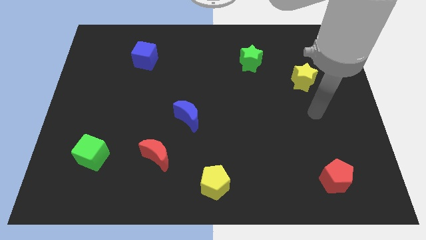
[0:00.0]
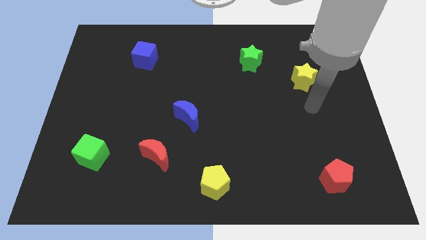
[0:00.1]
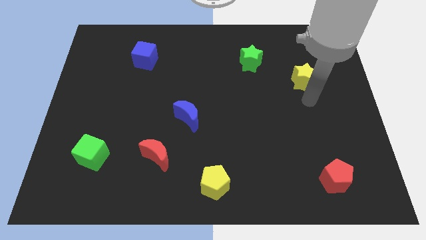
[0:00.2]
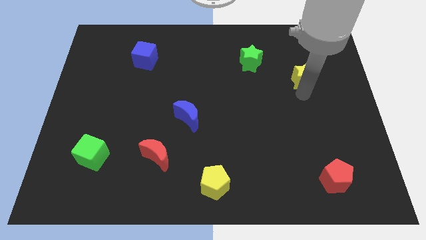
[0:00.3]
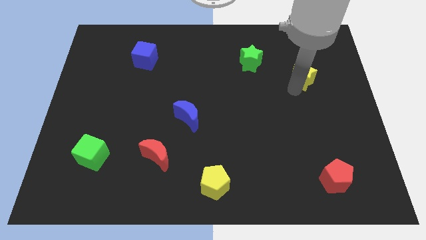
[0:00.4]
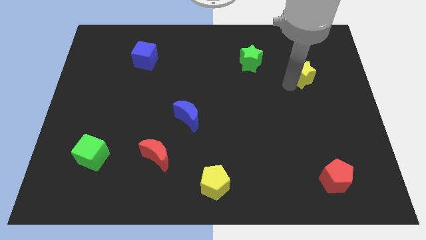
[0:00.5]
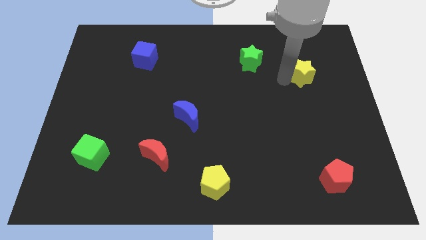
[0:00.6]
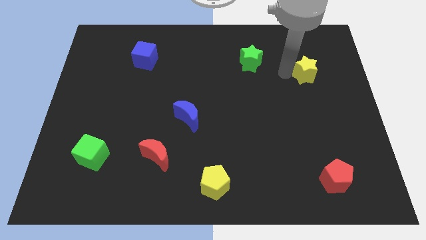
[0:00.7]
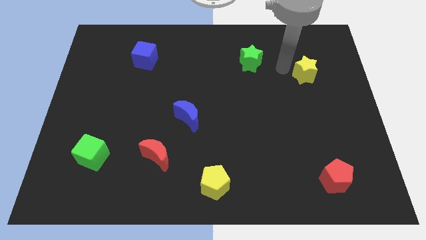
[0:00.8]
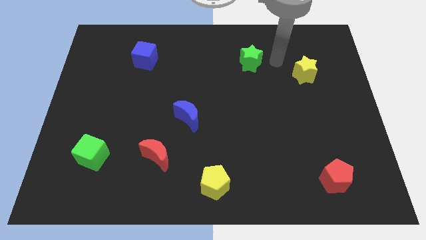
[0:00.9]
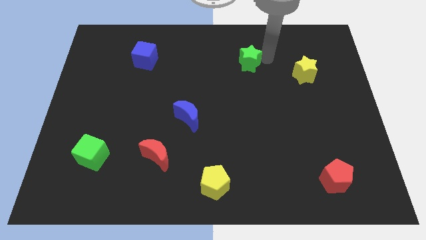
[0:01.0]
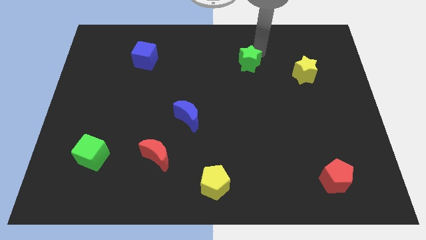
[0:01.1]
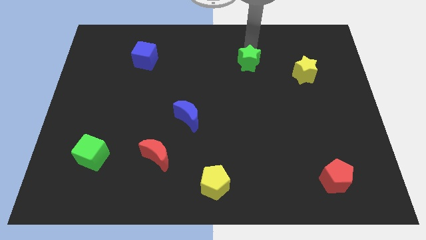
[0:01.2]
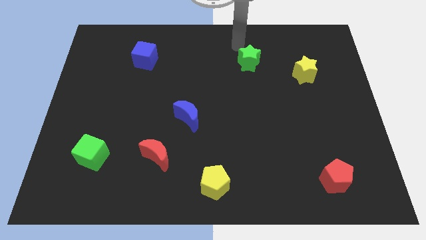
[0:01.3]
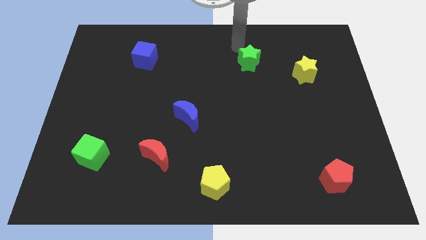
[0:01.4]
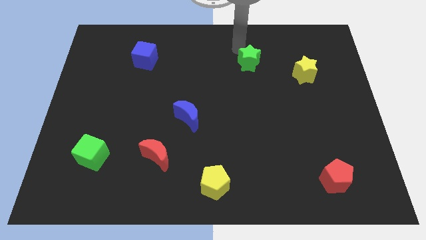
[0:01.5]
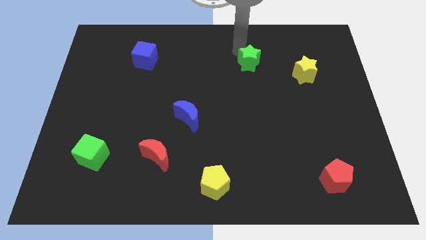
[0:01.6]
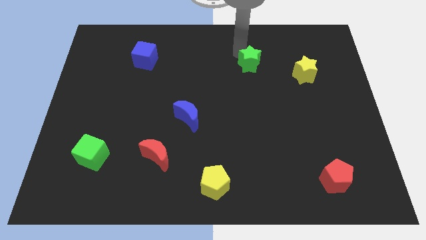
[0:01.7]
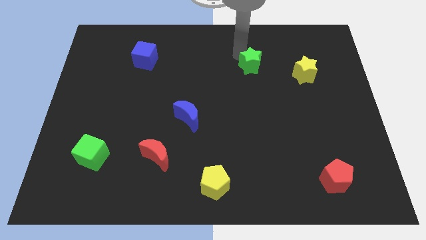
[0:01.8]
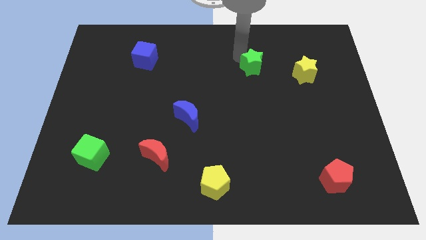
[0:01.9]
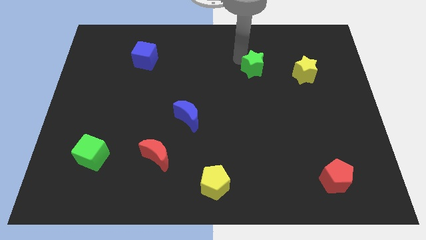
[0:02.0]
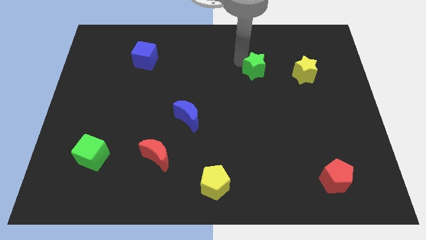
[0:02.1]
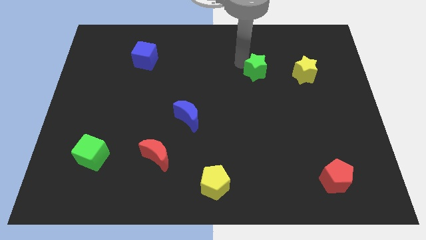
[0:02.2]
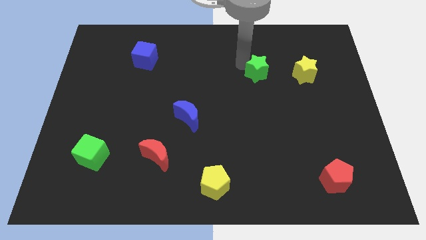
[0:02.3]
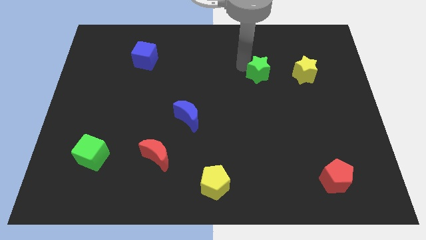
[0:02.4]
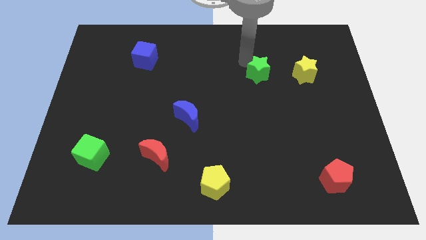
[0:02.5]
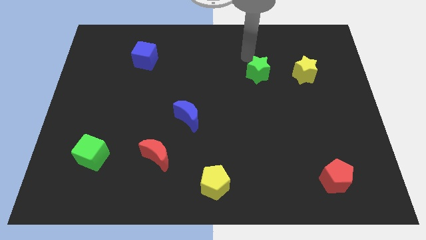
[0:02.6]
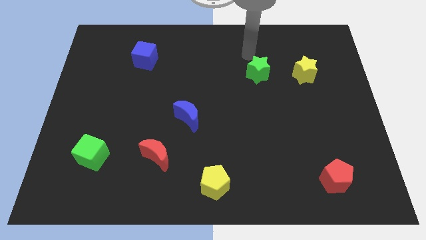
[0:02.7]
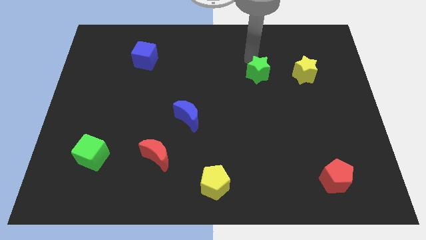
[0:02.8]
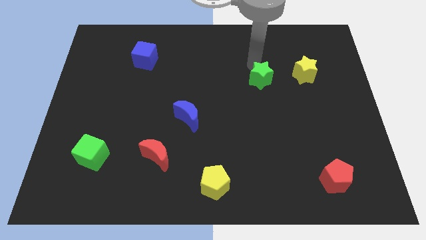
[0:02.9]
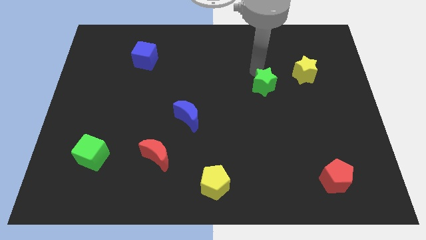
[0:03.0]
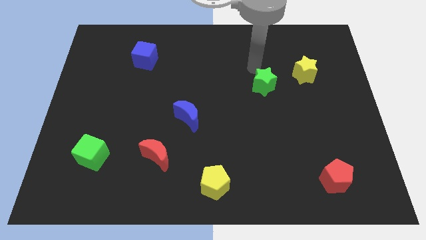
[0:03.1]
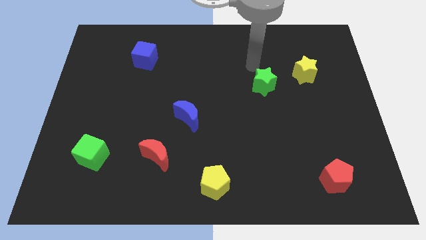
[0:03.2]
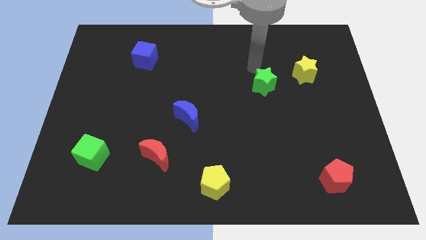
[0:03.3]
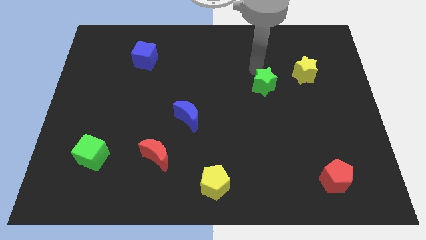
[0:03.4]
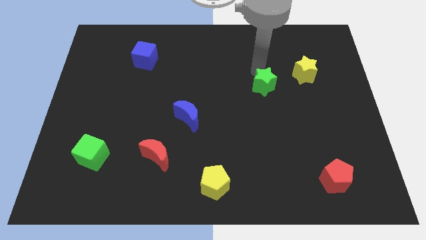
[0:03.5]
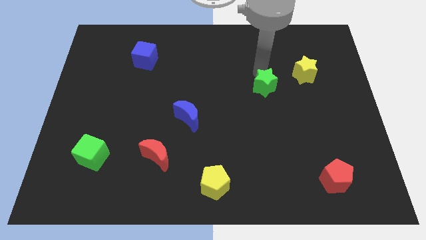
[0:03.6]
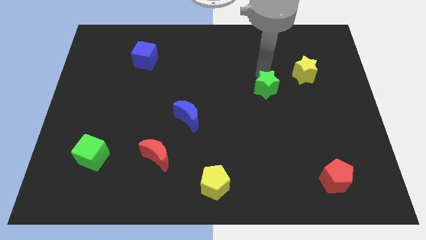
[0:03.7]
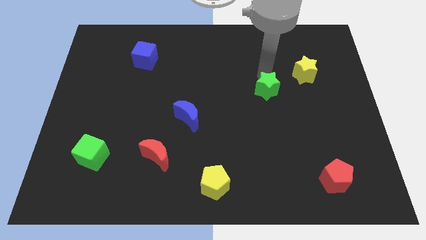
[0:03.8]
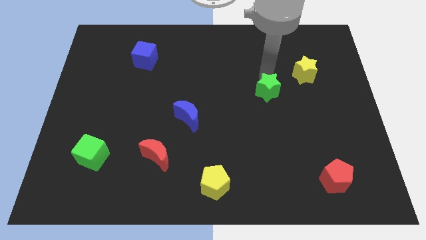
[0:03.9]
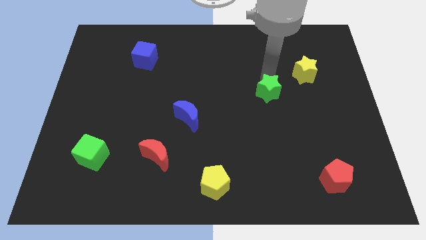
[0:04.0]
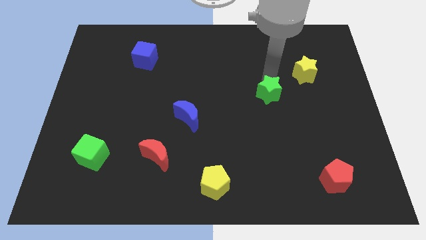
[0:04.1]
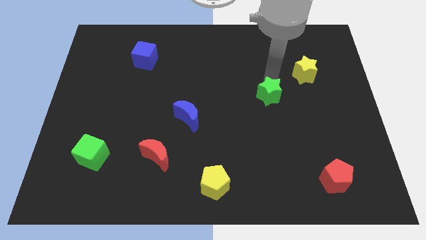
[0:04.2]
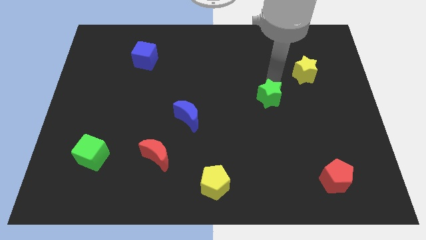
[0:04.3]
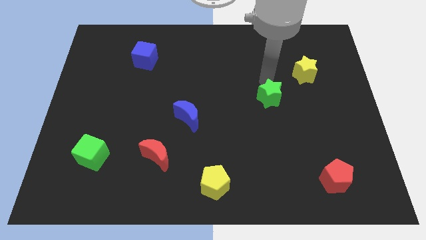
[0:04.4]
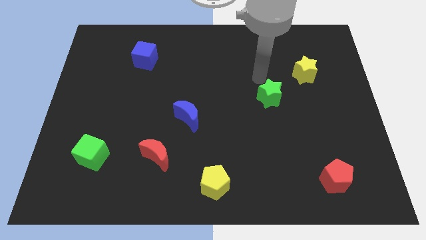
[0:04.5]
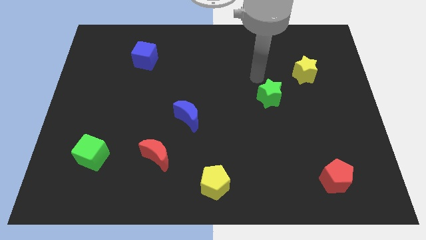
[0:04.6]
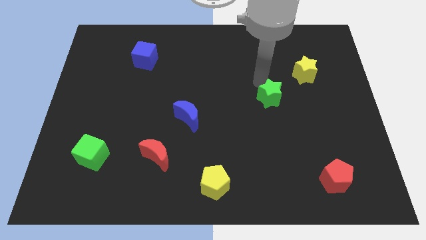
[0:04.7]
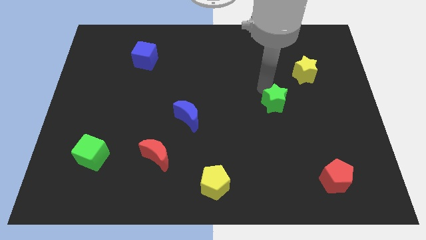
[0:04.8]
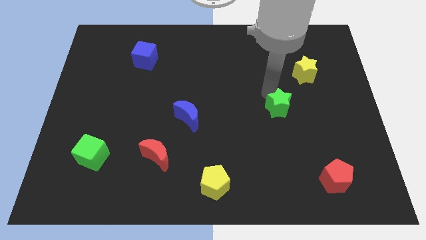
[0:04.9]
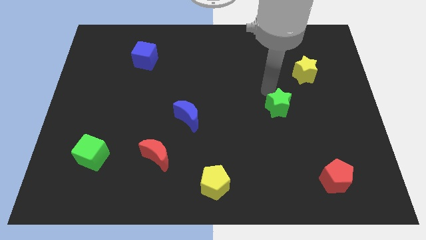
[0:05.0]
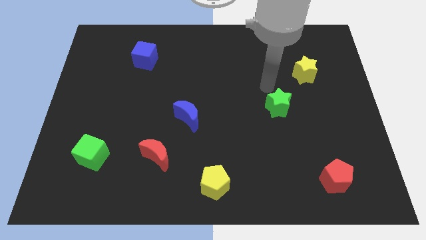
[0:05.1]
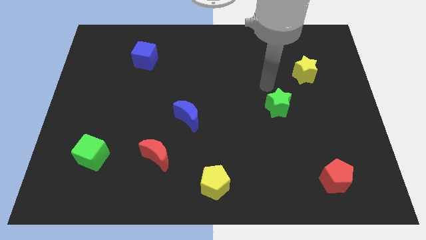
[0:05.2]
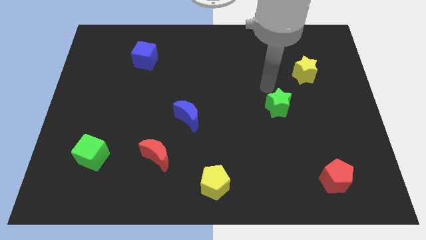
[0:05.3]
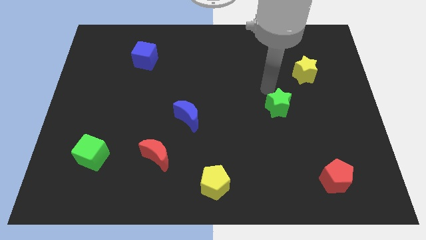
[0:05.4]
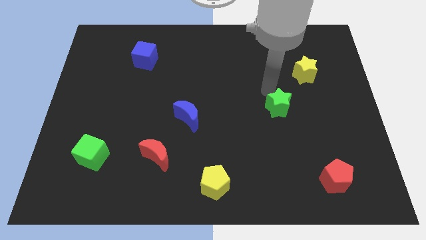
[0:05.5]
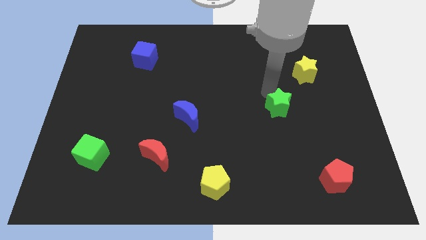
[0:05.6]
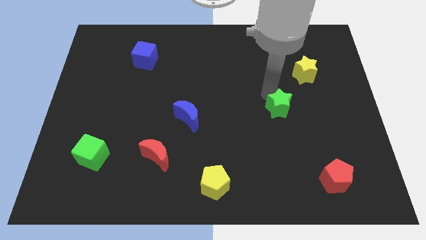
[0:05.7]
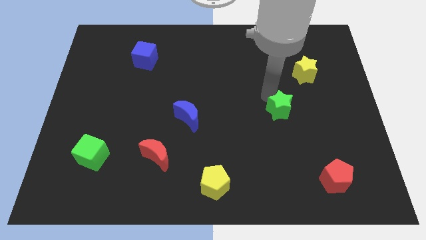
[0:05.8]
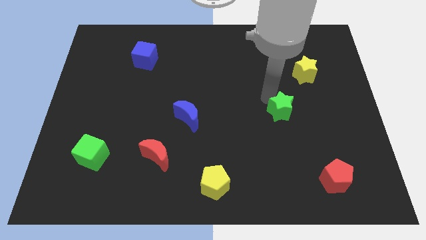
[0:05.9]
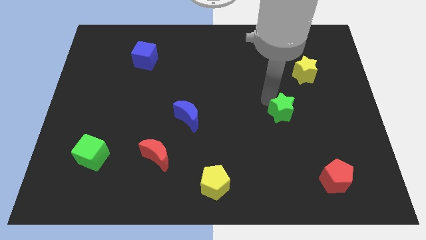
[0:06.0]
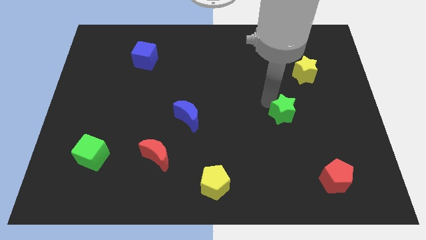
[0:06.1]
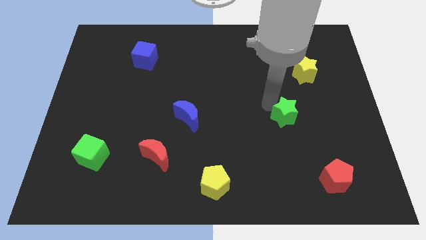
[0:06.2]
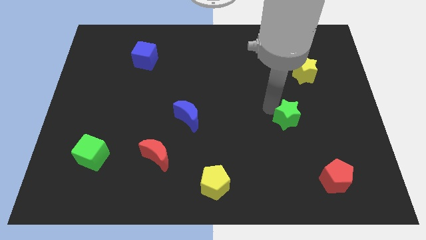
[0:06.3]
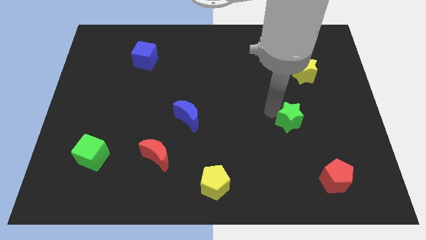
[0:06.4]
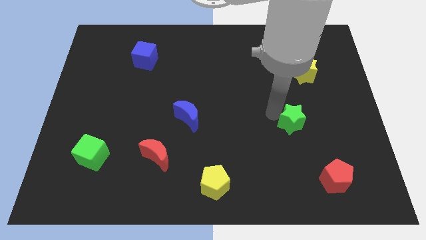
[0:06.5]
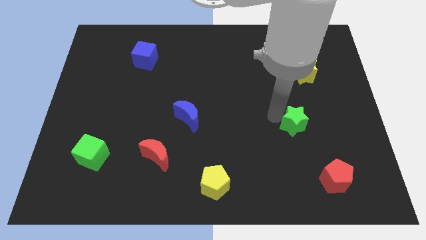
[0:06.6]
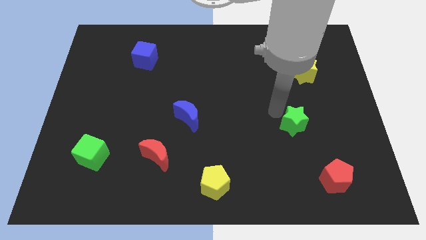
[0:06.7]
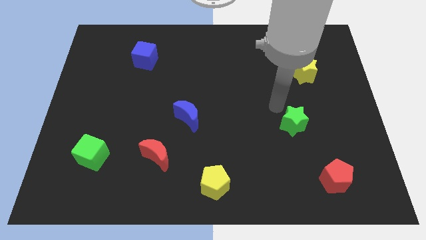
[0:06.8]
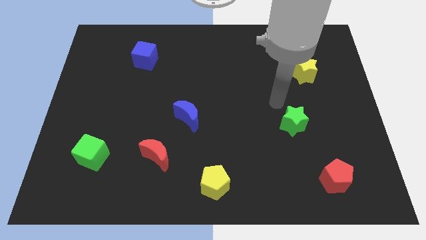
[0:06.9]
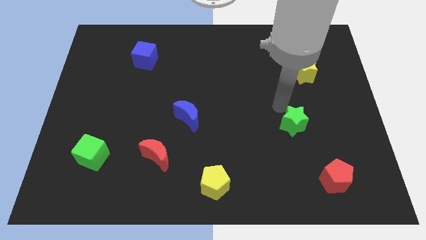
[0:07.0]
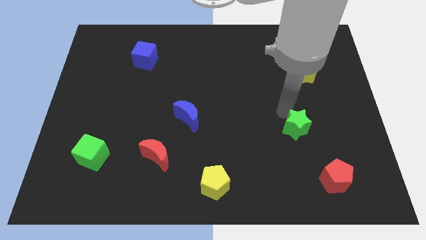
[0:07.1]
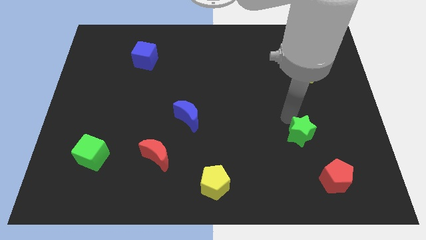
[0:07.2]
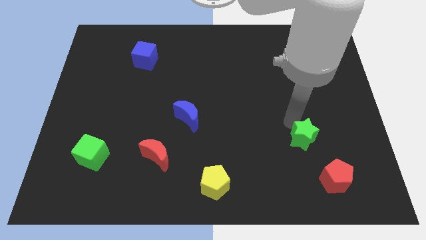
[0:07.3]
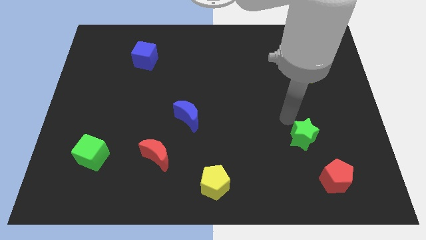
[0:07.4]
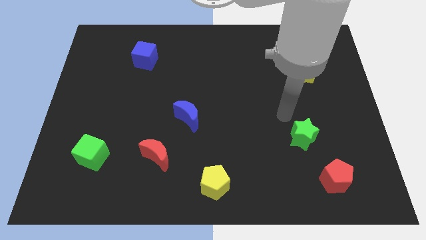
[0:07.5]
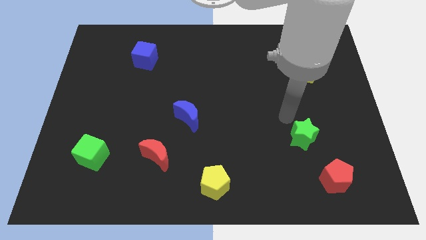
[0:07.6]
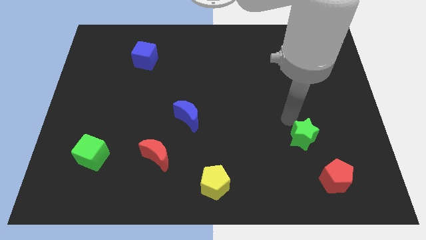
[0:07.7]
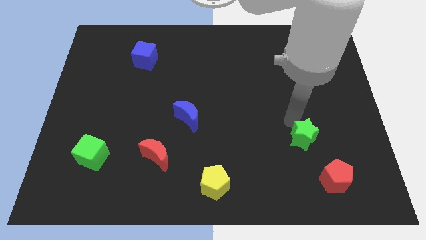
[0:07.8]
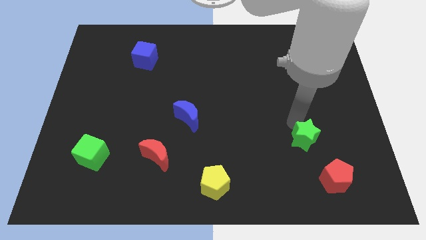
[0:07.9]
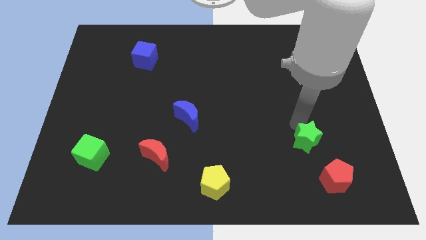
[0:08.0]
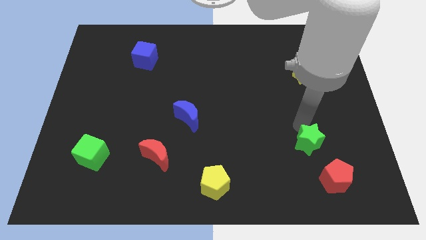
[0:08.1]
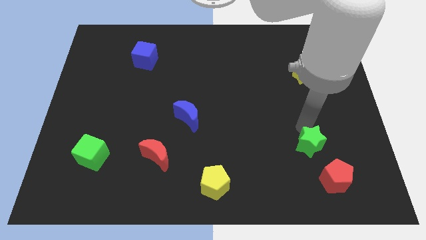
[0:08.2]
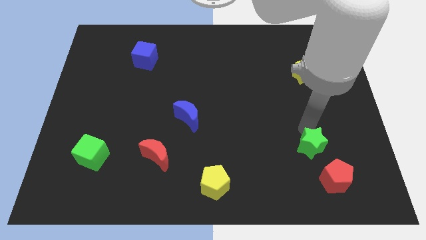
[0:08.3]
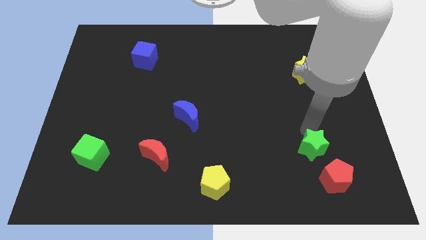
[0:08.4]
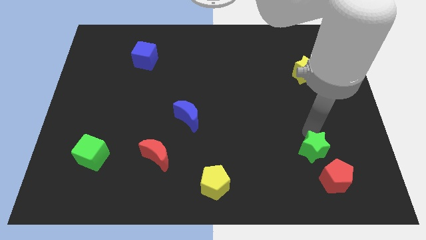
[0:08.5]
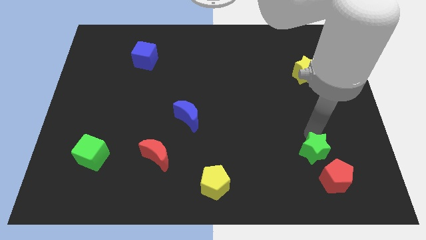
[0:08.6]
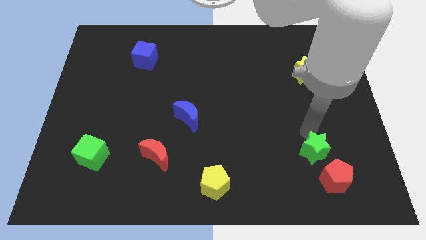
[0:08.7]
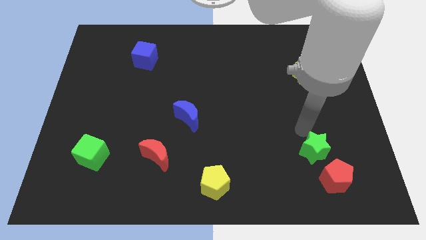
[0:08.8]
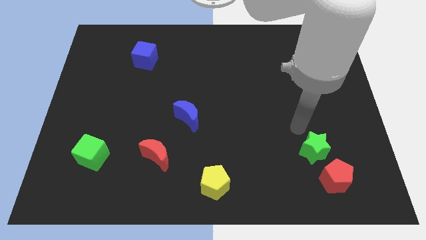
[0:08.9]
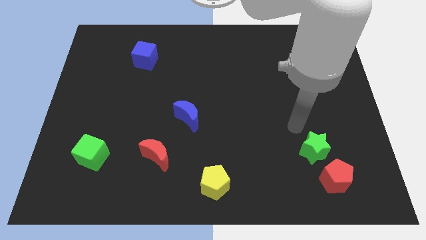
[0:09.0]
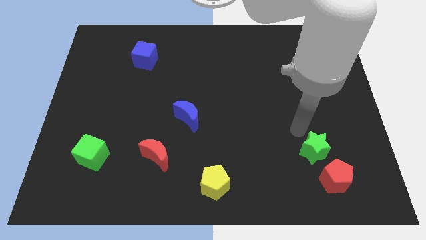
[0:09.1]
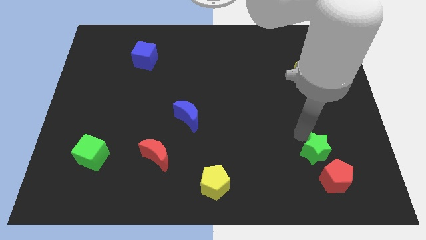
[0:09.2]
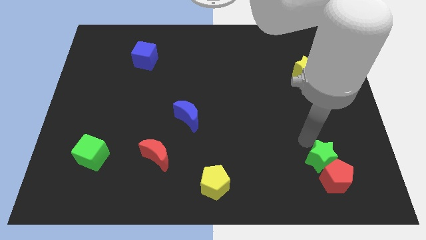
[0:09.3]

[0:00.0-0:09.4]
put the green star next to the red pentagon
